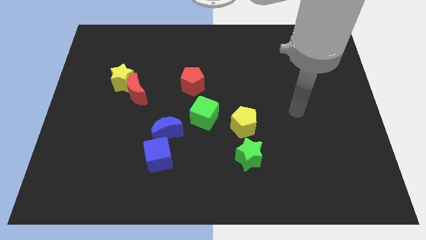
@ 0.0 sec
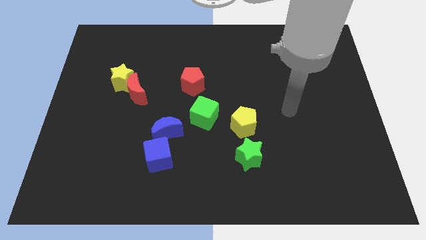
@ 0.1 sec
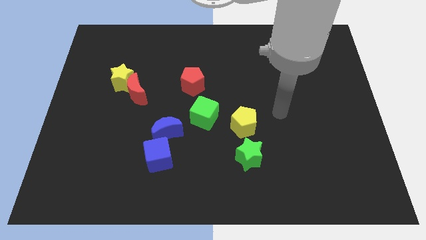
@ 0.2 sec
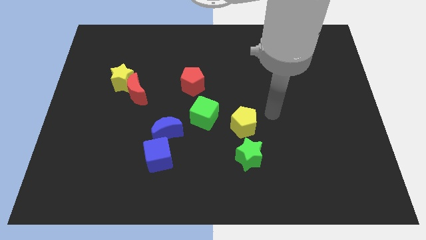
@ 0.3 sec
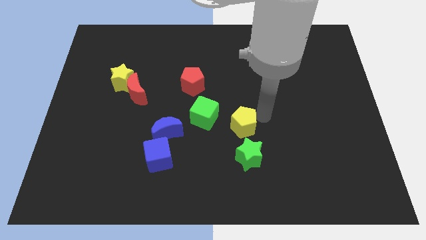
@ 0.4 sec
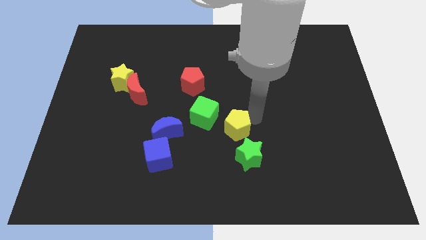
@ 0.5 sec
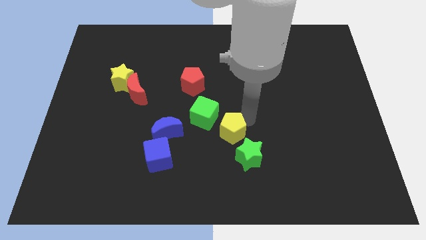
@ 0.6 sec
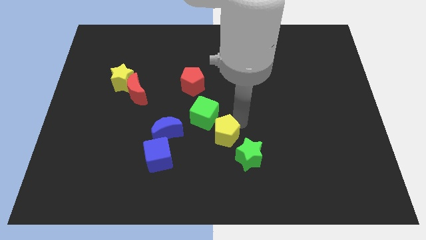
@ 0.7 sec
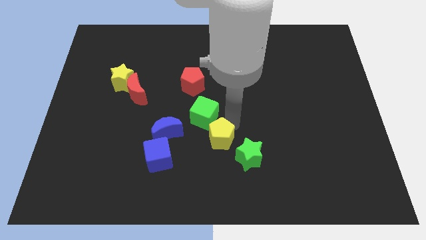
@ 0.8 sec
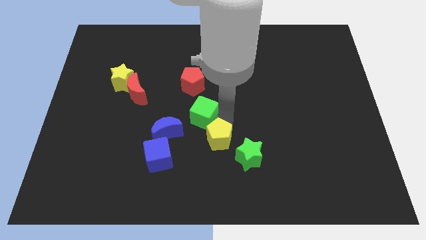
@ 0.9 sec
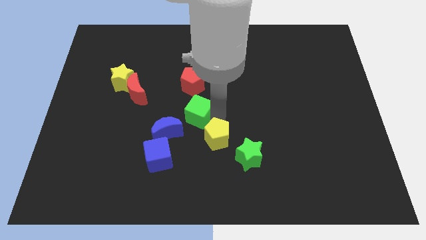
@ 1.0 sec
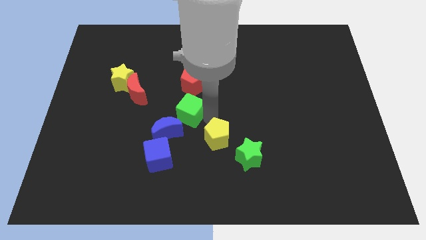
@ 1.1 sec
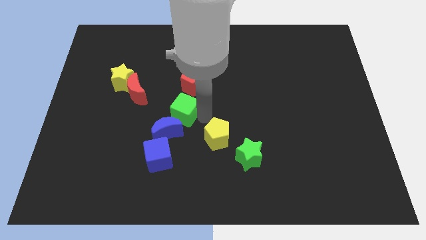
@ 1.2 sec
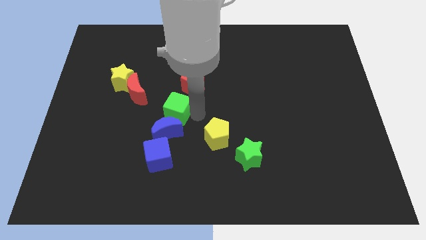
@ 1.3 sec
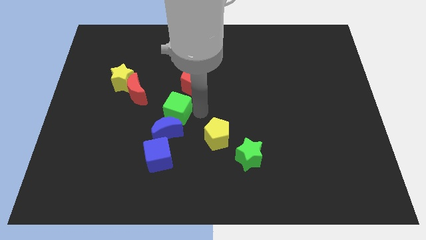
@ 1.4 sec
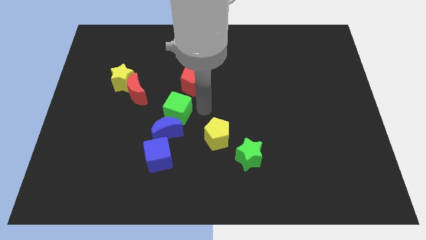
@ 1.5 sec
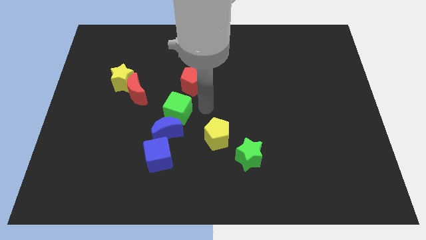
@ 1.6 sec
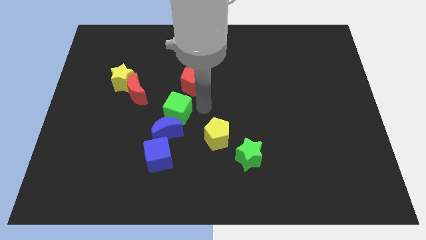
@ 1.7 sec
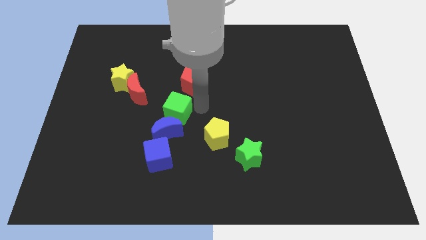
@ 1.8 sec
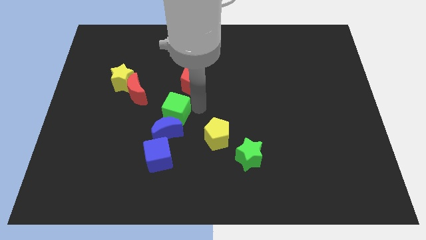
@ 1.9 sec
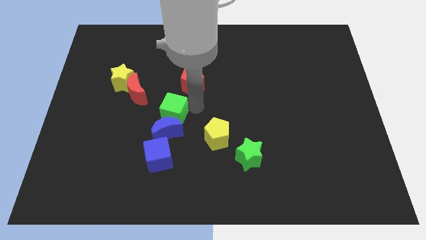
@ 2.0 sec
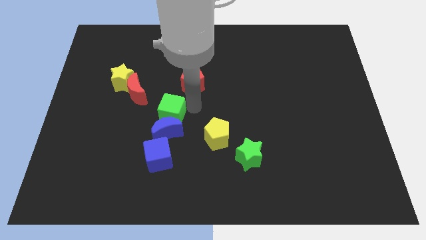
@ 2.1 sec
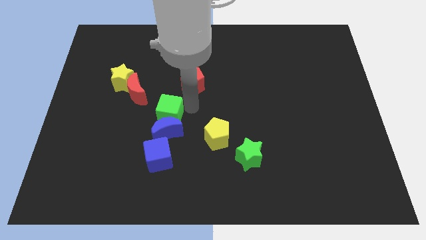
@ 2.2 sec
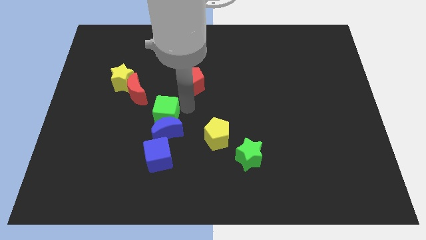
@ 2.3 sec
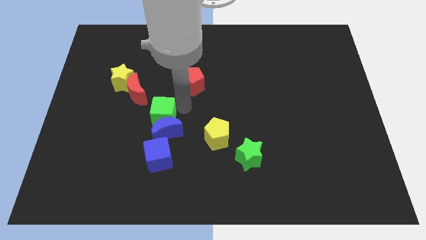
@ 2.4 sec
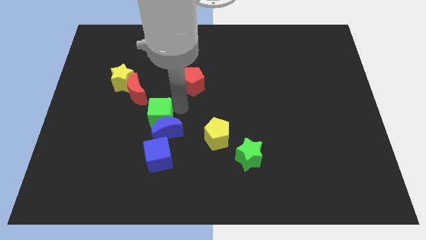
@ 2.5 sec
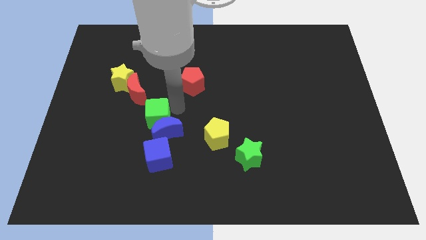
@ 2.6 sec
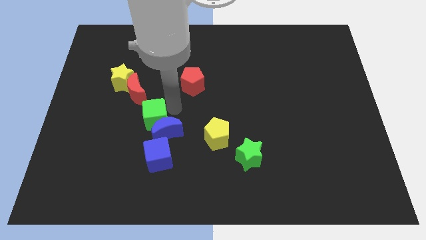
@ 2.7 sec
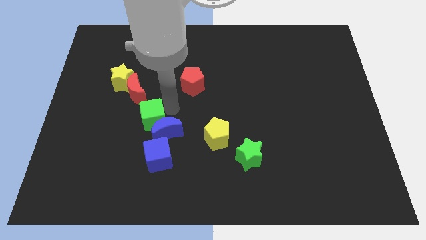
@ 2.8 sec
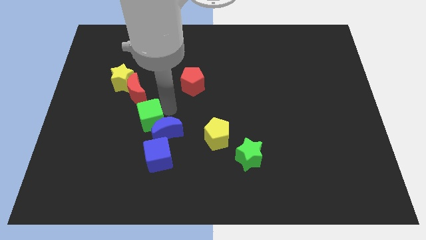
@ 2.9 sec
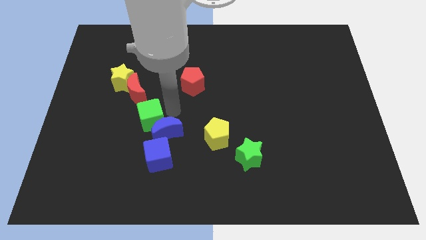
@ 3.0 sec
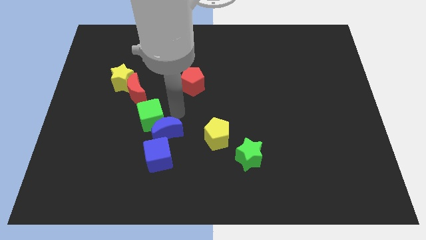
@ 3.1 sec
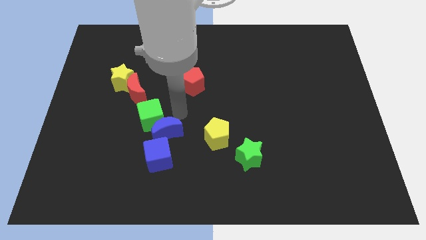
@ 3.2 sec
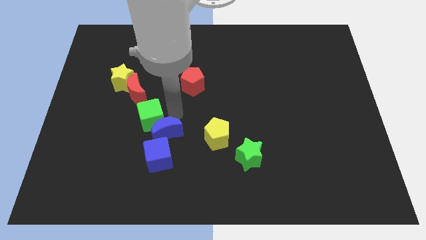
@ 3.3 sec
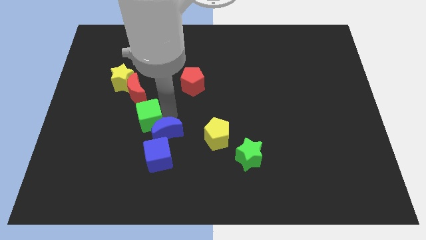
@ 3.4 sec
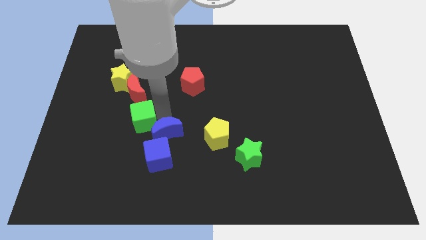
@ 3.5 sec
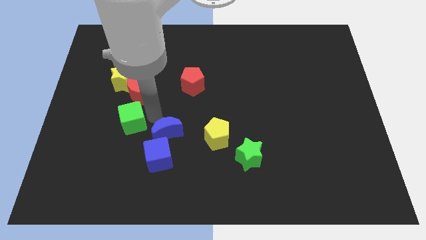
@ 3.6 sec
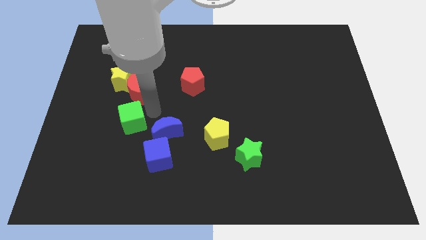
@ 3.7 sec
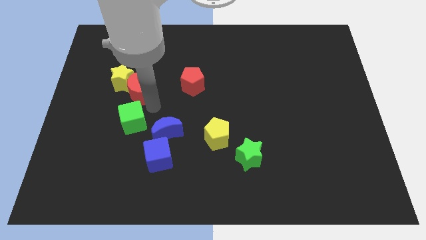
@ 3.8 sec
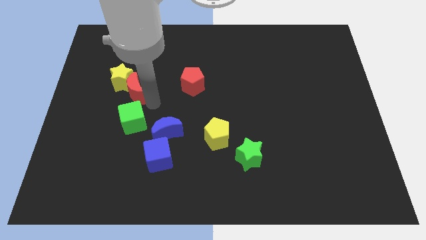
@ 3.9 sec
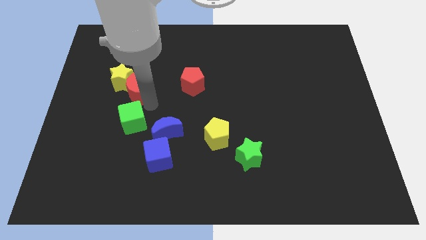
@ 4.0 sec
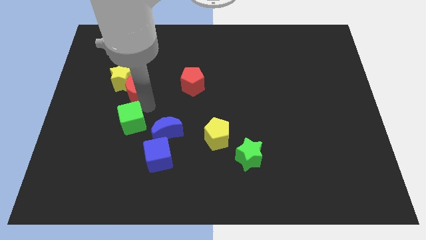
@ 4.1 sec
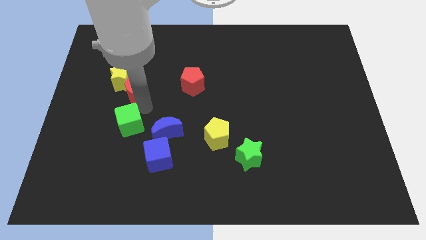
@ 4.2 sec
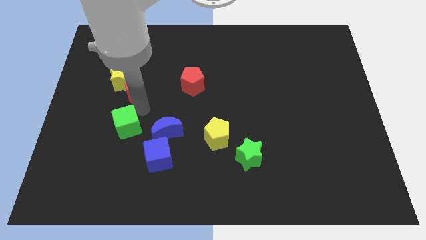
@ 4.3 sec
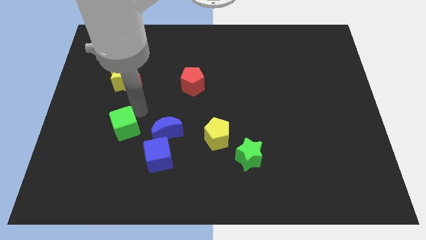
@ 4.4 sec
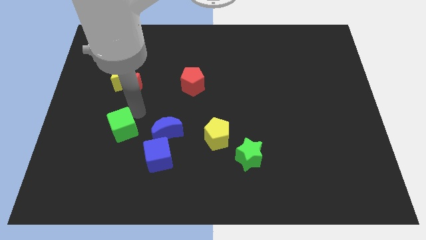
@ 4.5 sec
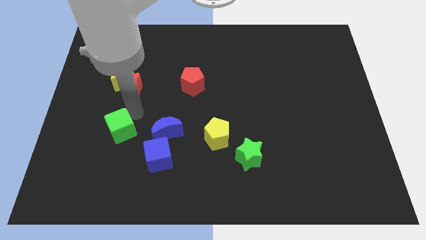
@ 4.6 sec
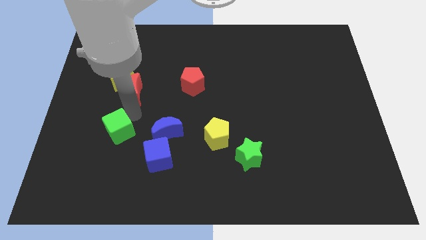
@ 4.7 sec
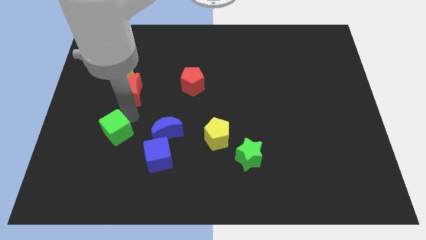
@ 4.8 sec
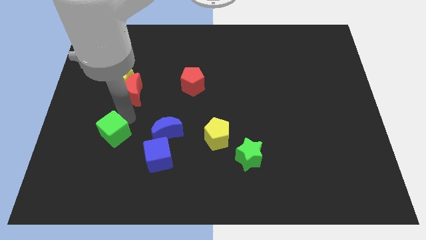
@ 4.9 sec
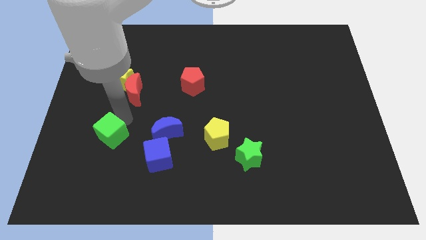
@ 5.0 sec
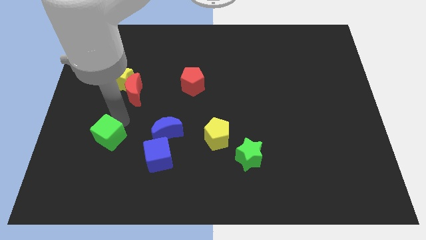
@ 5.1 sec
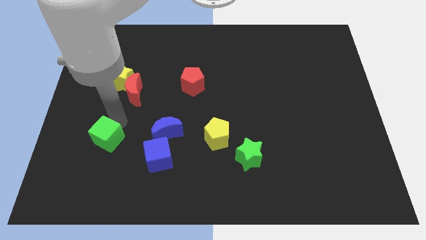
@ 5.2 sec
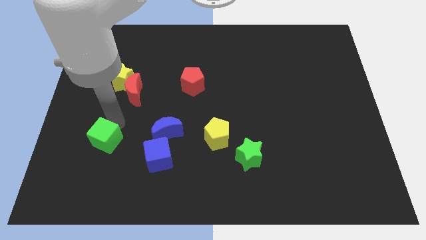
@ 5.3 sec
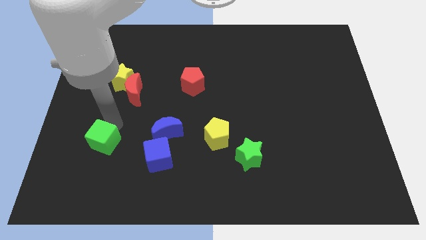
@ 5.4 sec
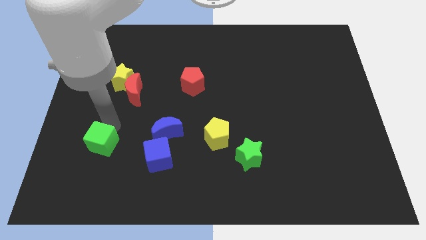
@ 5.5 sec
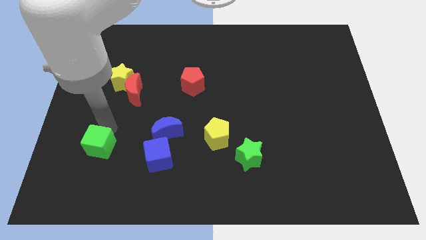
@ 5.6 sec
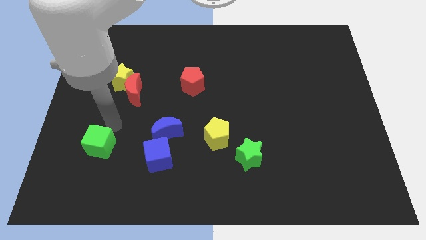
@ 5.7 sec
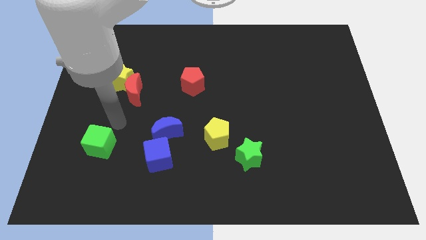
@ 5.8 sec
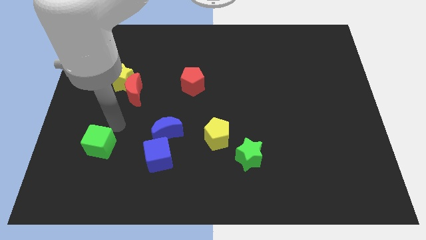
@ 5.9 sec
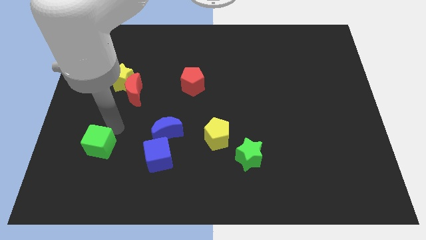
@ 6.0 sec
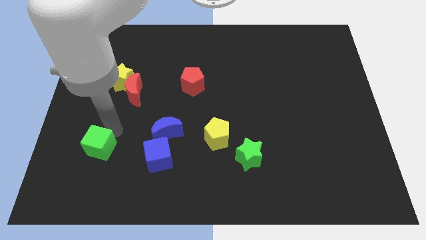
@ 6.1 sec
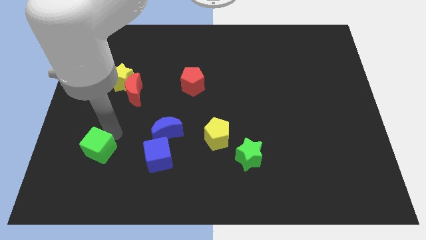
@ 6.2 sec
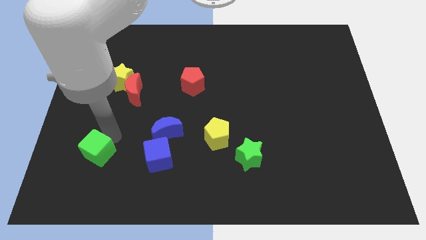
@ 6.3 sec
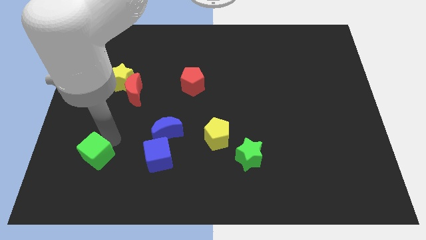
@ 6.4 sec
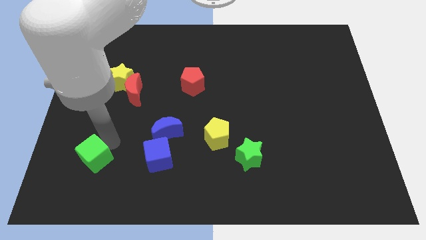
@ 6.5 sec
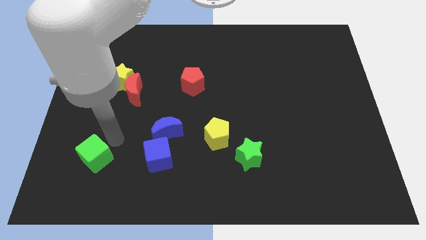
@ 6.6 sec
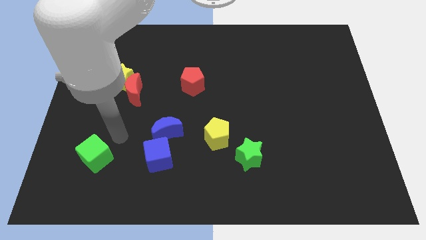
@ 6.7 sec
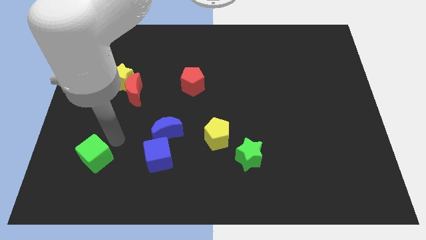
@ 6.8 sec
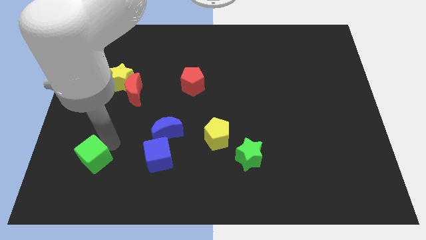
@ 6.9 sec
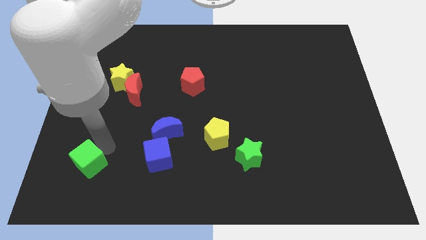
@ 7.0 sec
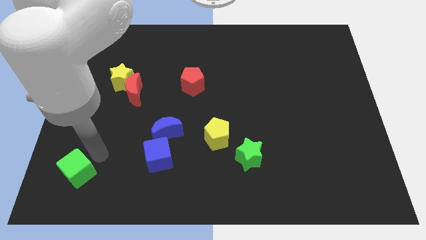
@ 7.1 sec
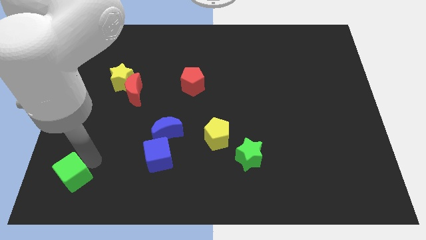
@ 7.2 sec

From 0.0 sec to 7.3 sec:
push the green cube to the bottom left of the board
